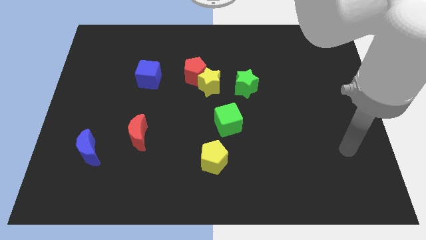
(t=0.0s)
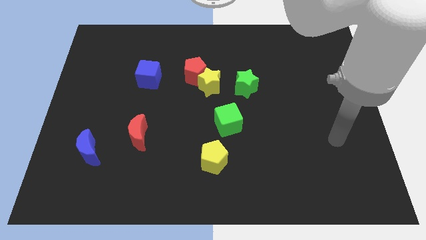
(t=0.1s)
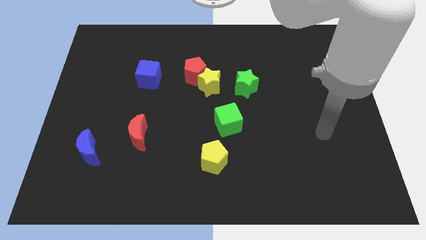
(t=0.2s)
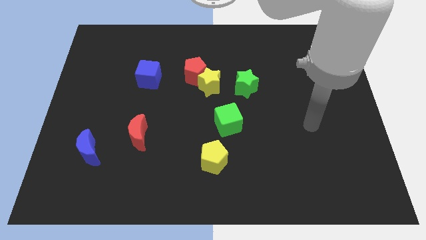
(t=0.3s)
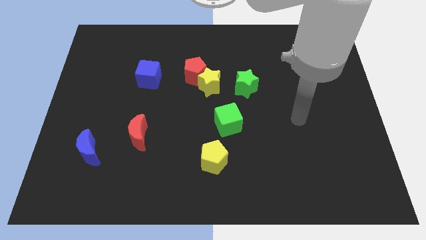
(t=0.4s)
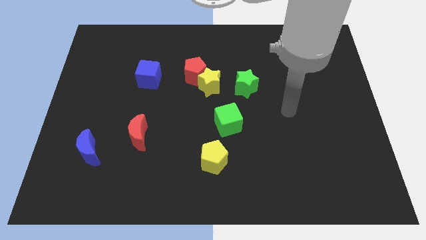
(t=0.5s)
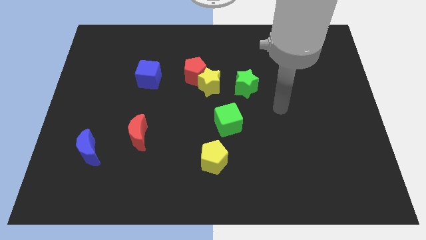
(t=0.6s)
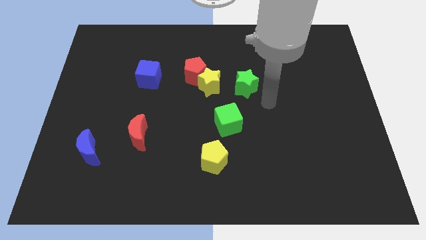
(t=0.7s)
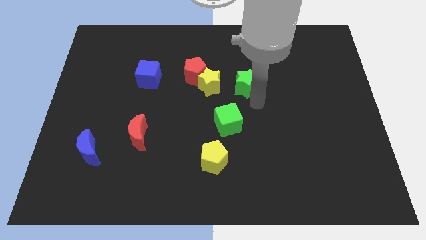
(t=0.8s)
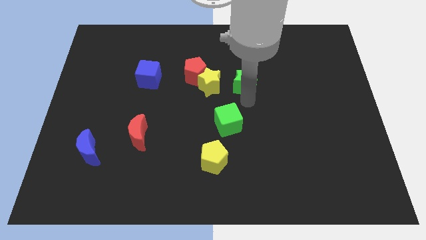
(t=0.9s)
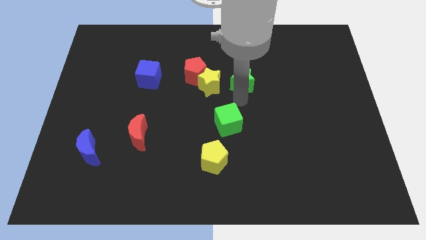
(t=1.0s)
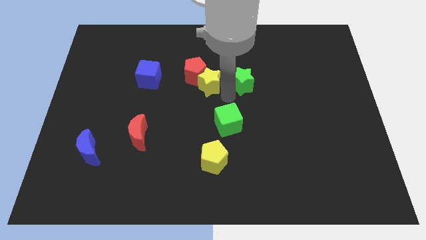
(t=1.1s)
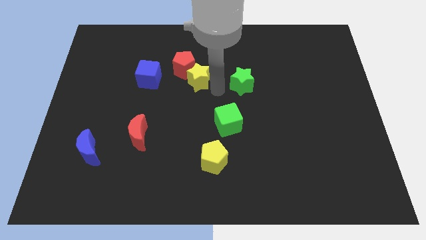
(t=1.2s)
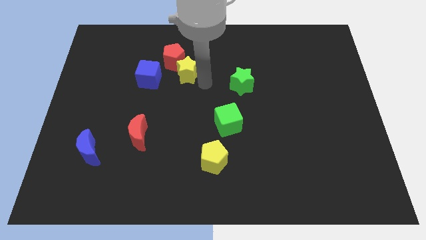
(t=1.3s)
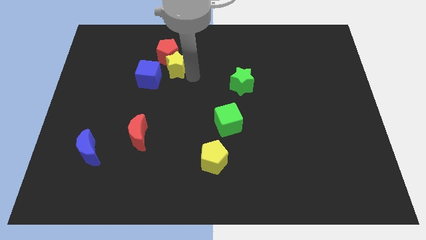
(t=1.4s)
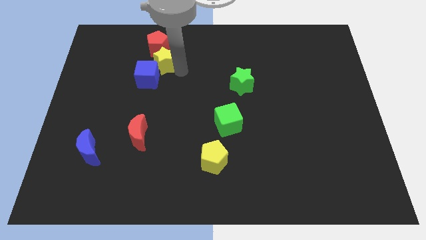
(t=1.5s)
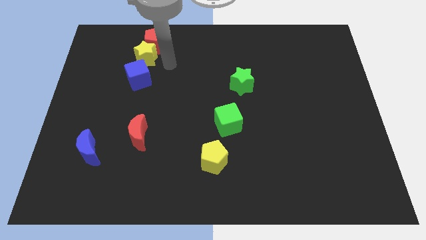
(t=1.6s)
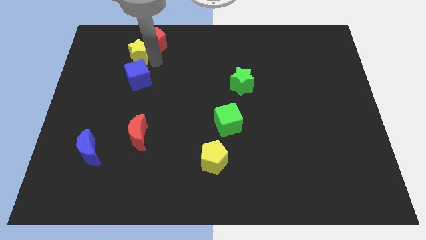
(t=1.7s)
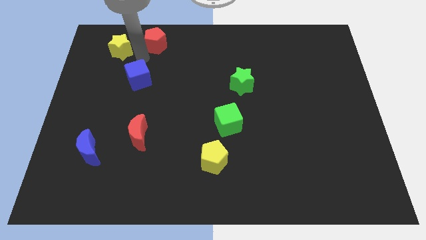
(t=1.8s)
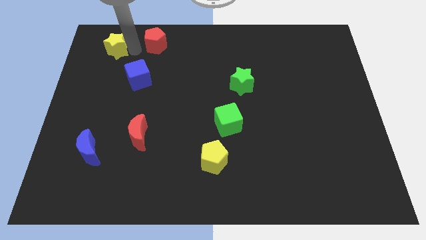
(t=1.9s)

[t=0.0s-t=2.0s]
pull the red pentagon apart from the yellow star

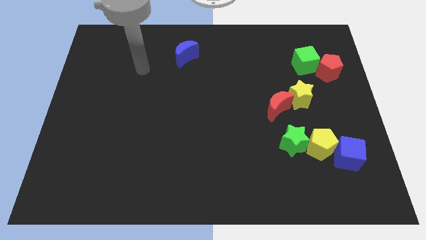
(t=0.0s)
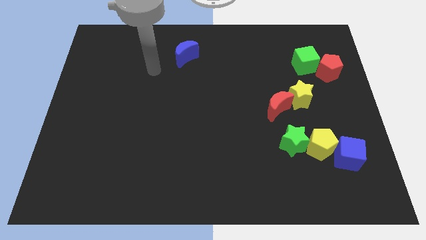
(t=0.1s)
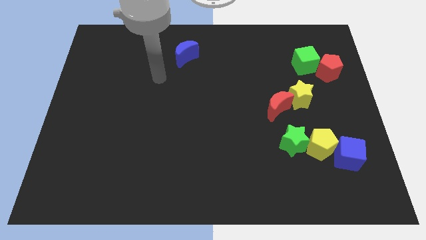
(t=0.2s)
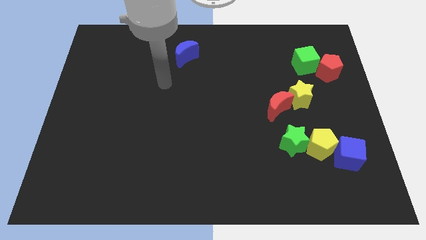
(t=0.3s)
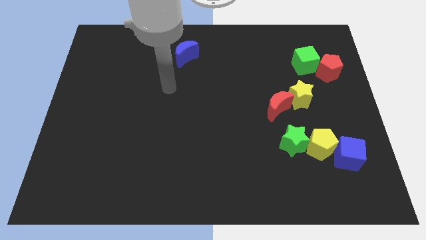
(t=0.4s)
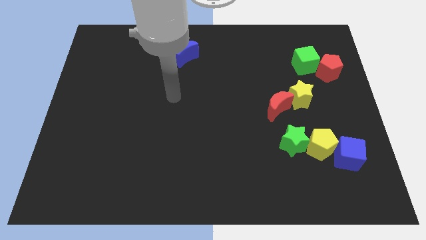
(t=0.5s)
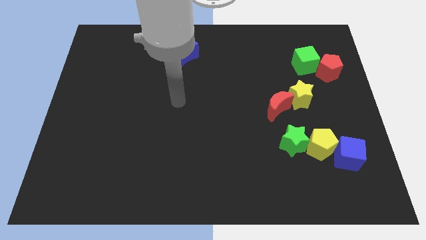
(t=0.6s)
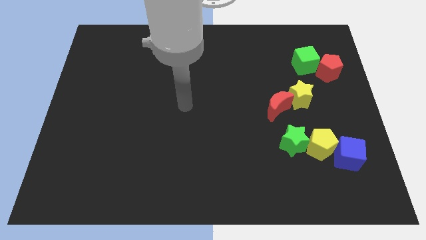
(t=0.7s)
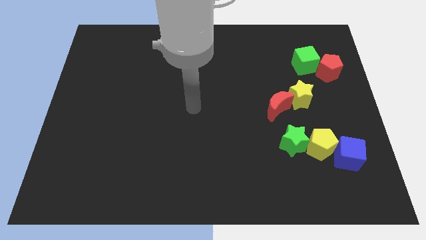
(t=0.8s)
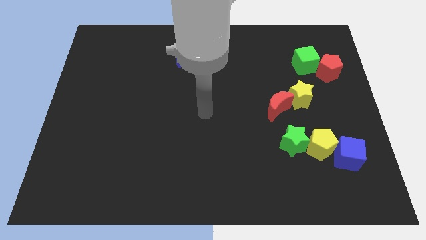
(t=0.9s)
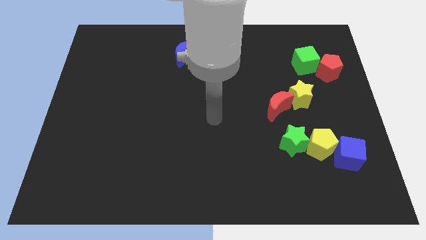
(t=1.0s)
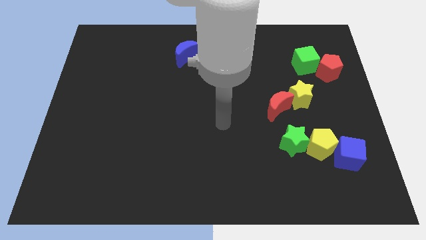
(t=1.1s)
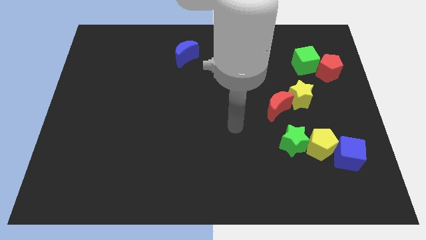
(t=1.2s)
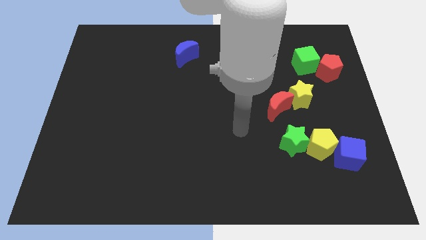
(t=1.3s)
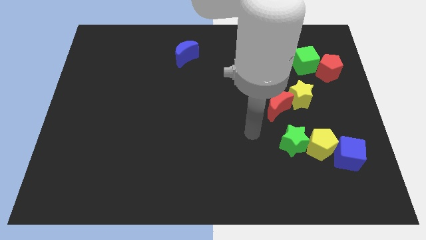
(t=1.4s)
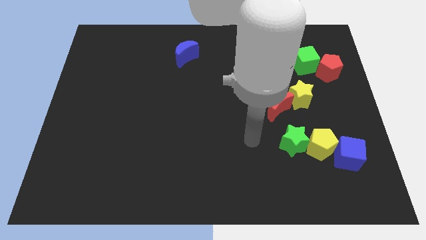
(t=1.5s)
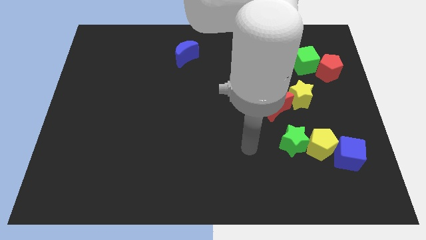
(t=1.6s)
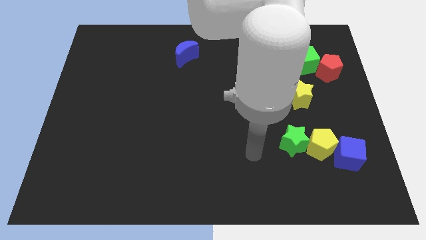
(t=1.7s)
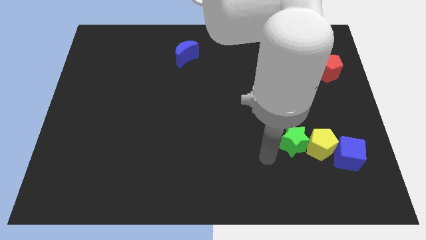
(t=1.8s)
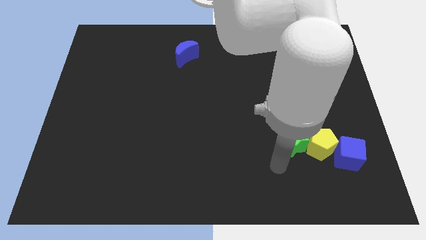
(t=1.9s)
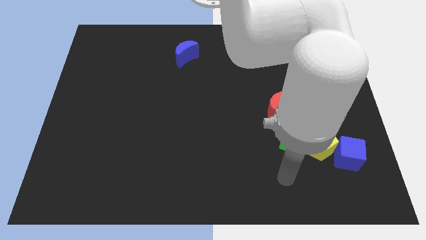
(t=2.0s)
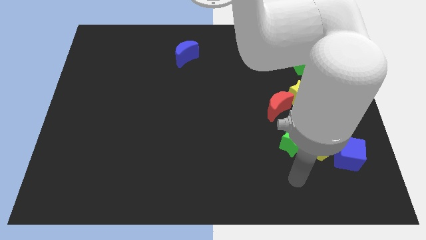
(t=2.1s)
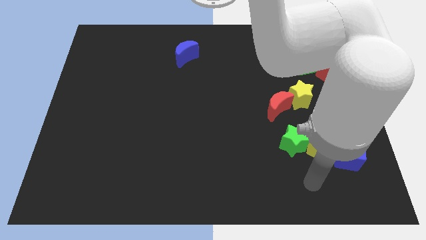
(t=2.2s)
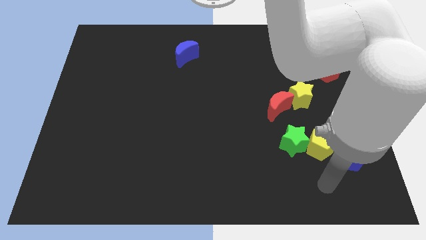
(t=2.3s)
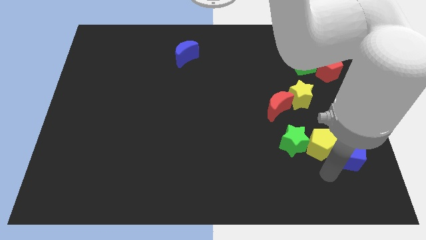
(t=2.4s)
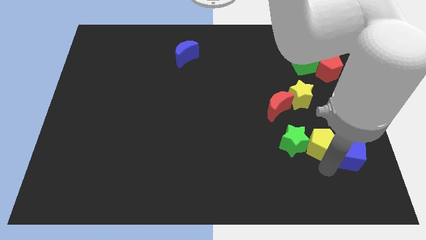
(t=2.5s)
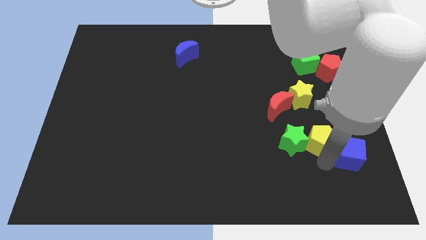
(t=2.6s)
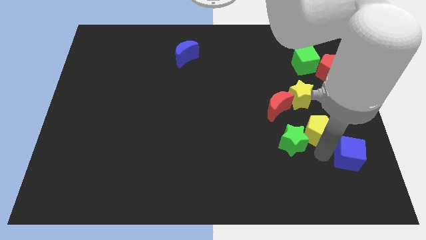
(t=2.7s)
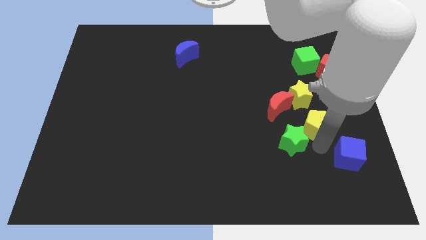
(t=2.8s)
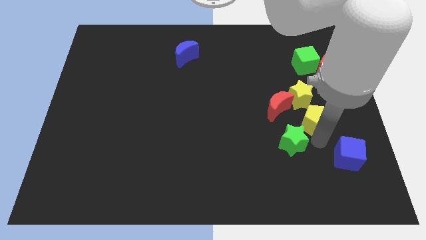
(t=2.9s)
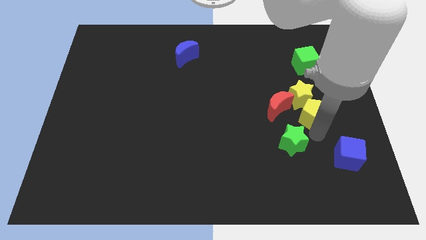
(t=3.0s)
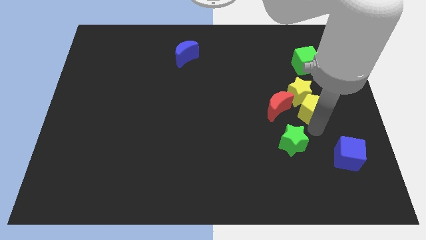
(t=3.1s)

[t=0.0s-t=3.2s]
separate the yellow pentagon from the green star and blue cube

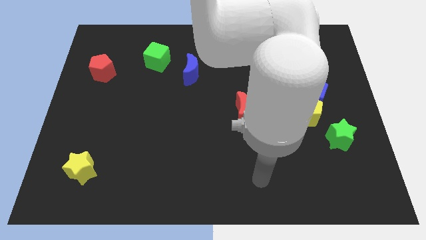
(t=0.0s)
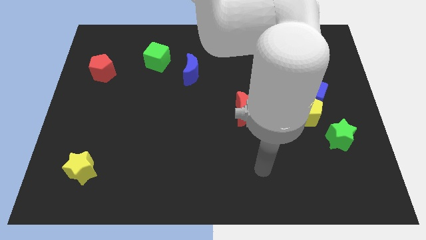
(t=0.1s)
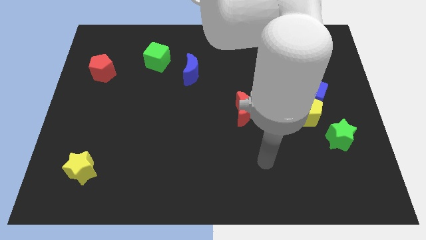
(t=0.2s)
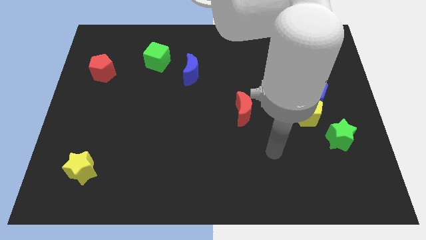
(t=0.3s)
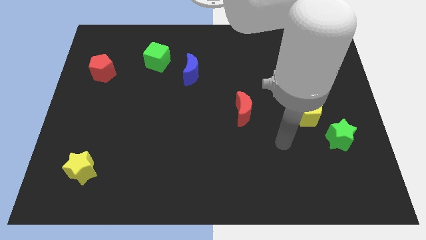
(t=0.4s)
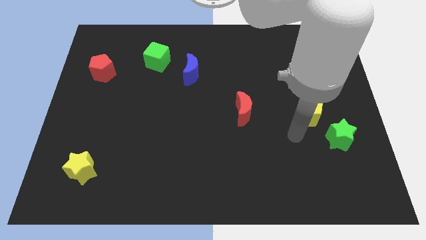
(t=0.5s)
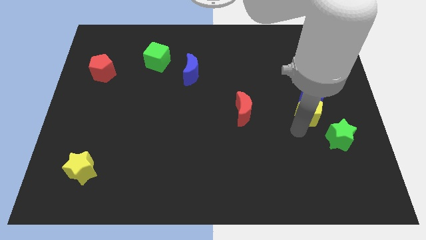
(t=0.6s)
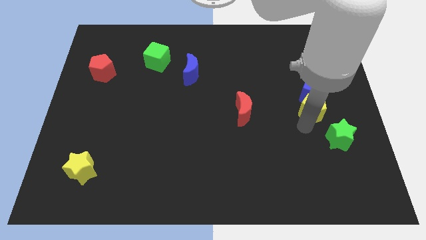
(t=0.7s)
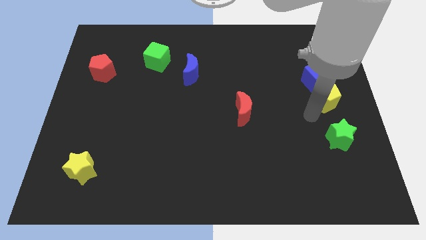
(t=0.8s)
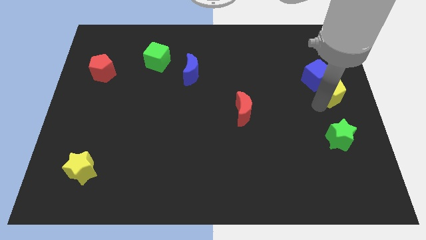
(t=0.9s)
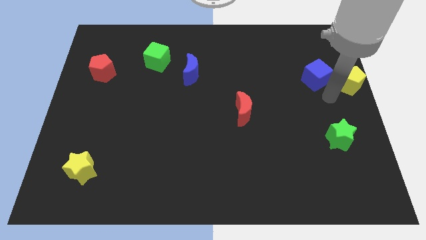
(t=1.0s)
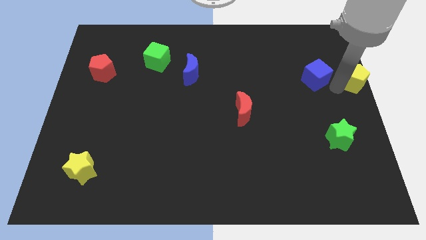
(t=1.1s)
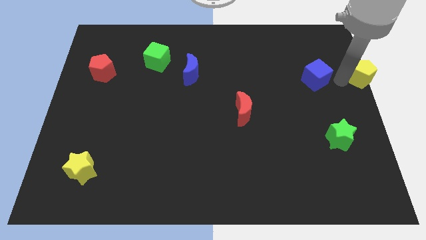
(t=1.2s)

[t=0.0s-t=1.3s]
pull the blue cube apart from the yellow pentagon

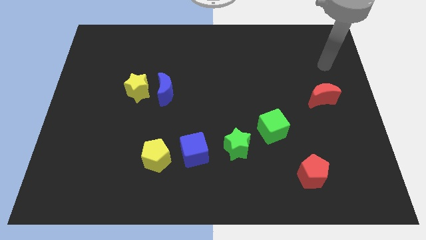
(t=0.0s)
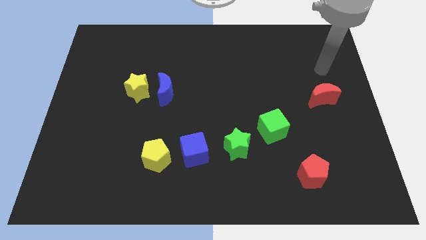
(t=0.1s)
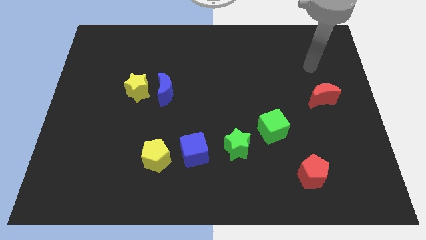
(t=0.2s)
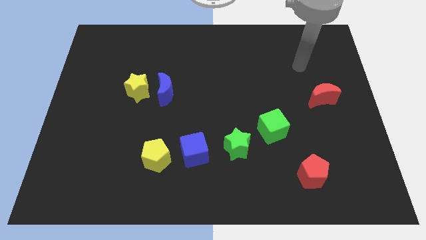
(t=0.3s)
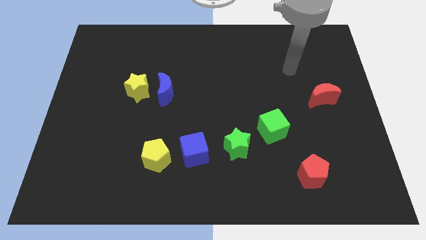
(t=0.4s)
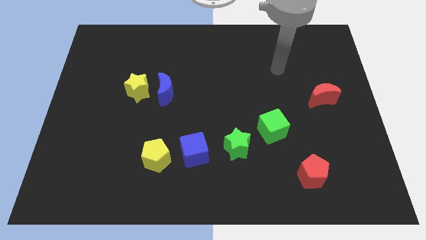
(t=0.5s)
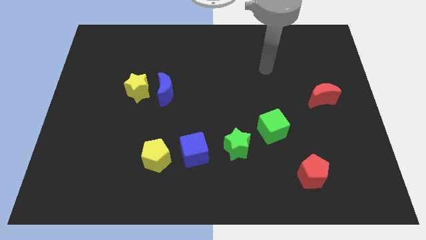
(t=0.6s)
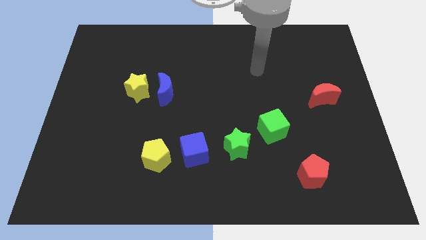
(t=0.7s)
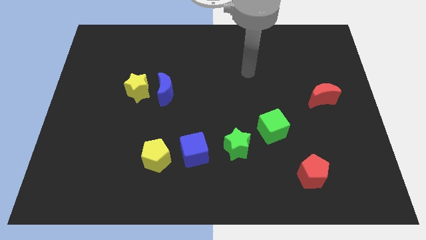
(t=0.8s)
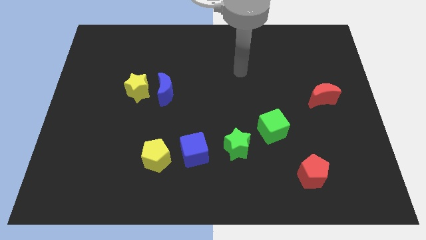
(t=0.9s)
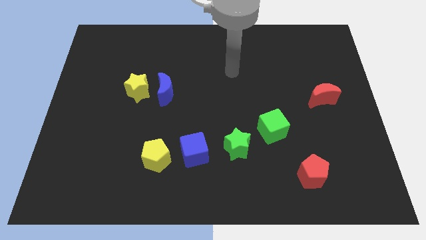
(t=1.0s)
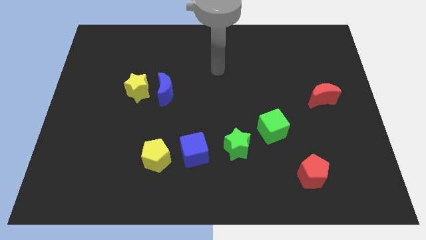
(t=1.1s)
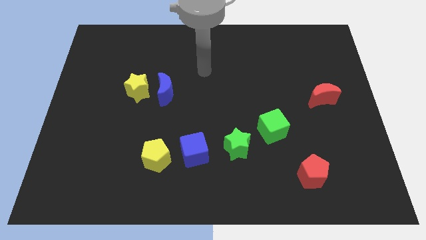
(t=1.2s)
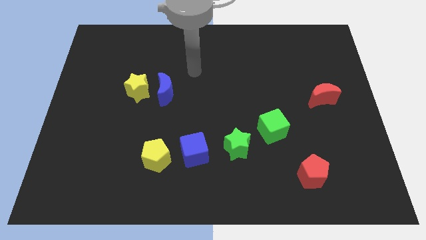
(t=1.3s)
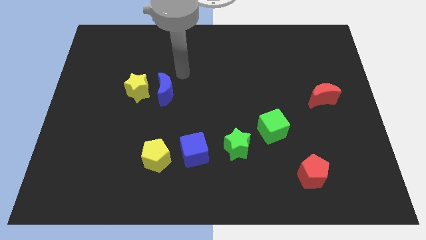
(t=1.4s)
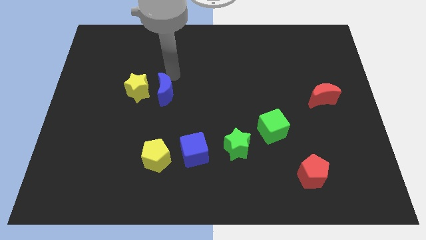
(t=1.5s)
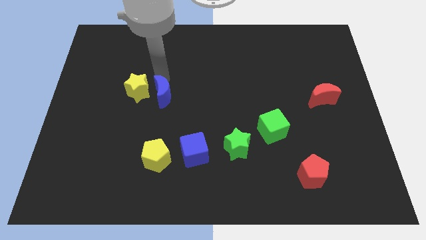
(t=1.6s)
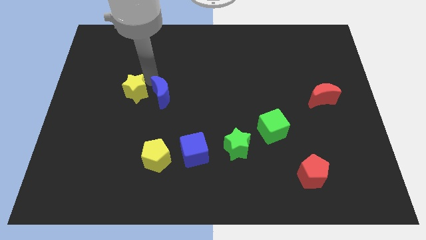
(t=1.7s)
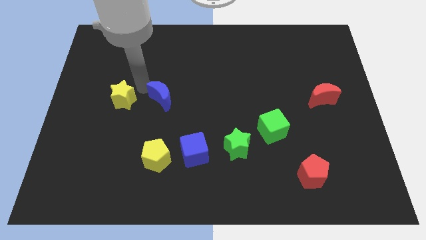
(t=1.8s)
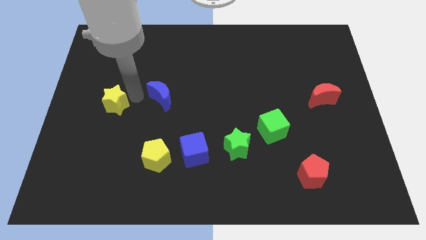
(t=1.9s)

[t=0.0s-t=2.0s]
pull the blue moon apart from the yellow star

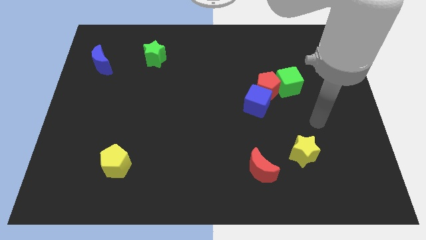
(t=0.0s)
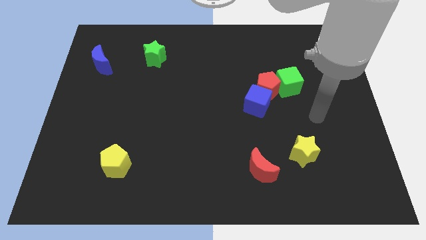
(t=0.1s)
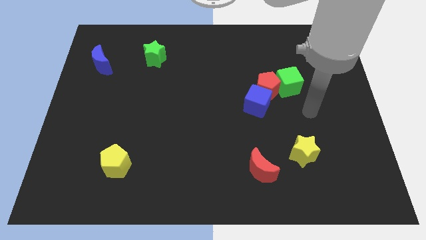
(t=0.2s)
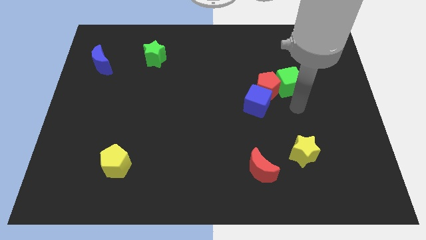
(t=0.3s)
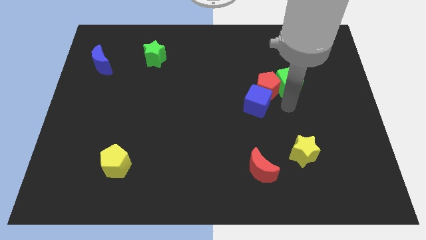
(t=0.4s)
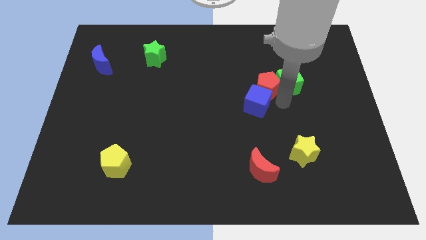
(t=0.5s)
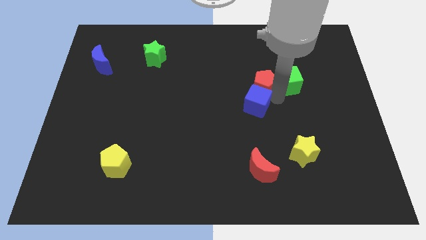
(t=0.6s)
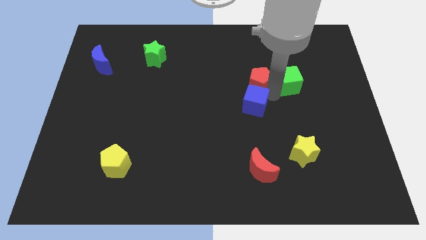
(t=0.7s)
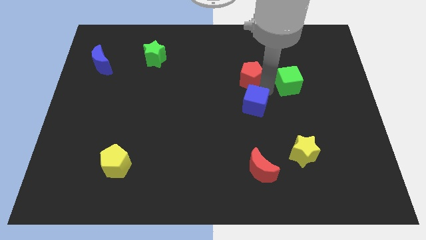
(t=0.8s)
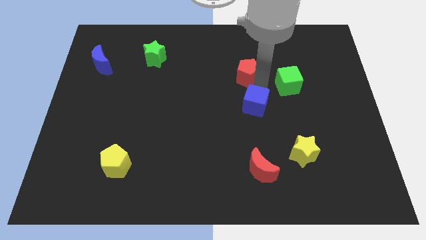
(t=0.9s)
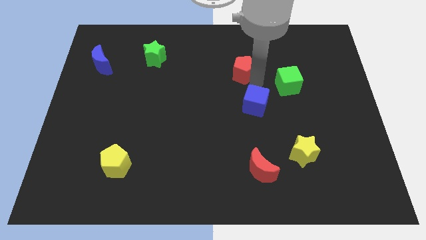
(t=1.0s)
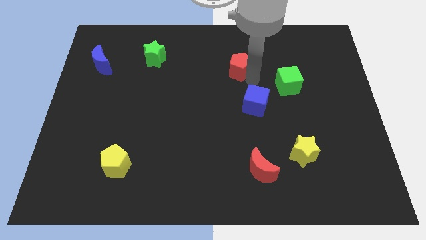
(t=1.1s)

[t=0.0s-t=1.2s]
move the red pentagon away from the blue cube and green cube
